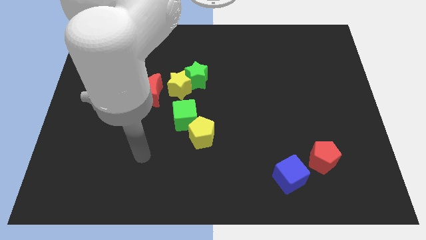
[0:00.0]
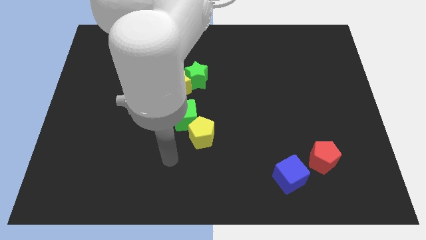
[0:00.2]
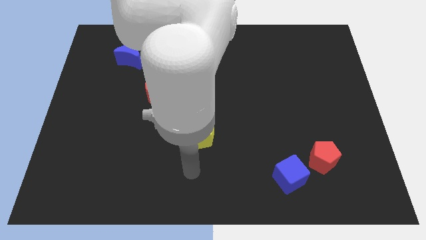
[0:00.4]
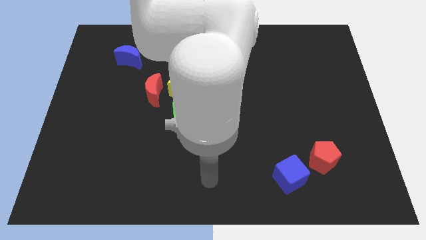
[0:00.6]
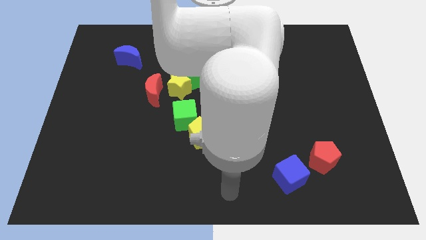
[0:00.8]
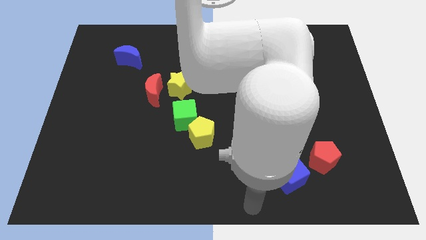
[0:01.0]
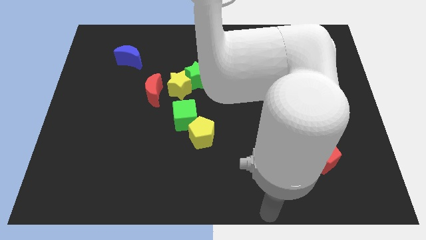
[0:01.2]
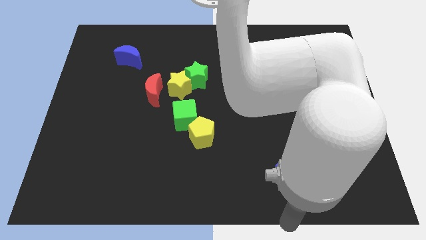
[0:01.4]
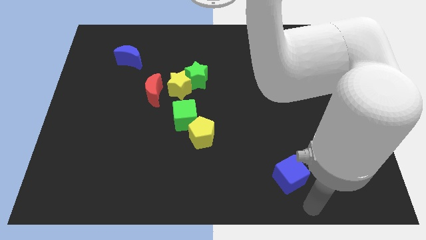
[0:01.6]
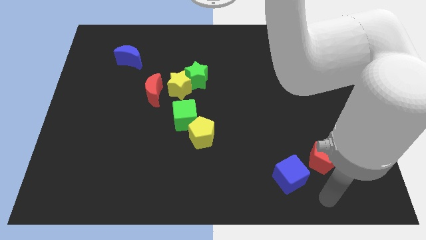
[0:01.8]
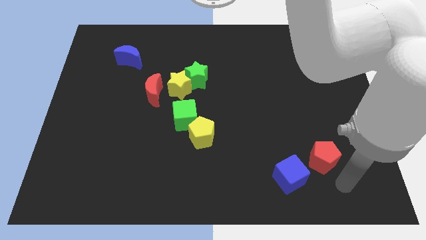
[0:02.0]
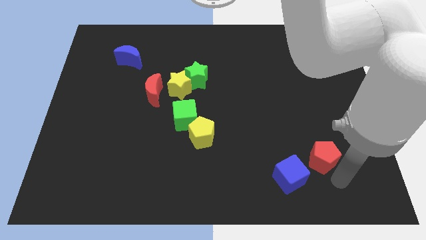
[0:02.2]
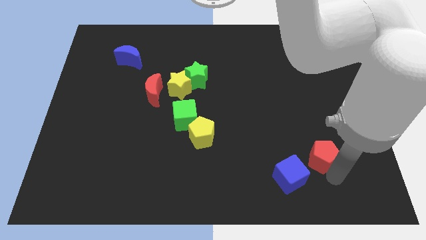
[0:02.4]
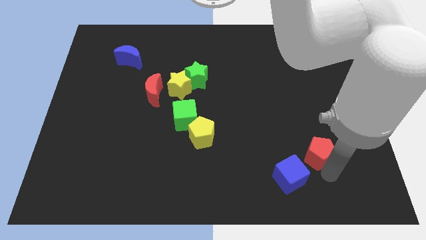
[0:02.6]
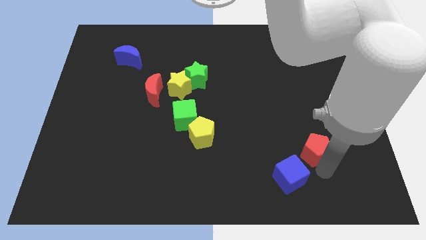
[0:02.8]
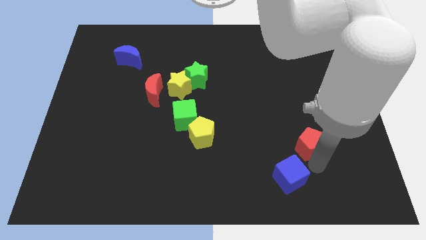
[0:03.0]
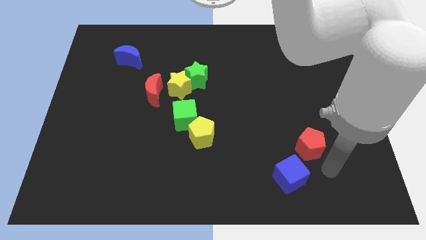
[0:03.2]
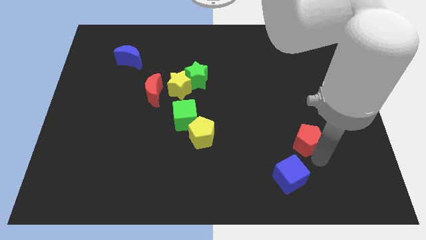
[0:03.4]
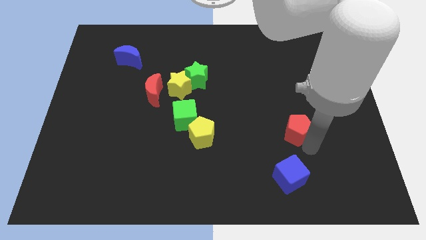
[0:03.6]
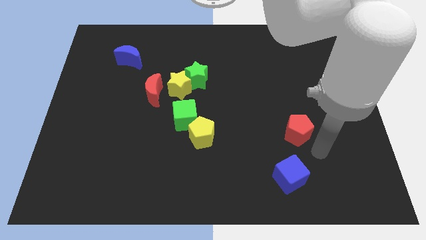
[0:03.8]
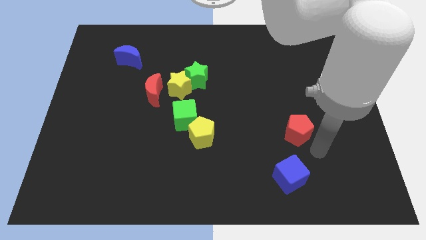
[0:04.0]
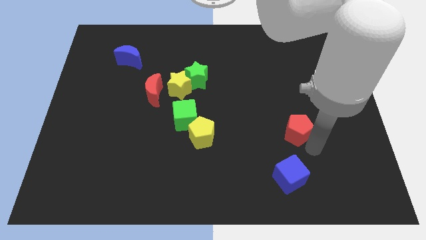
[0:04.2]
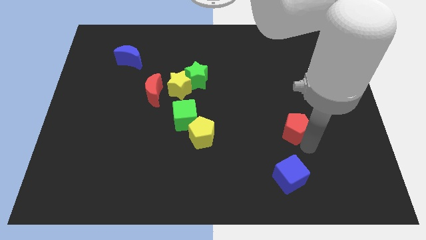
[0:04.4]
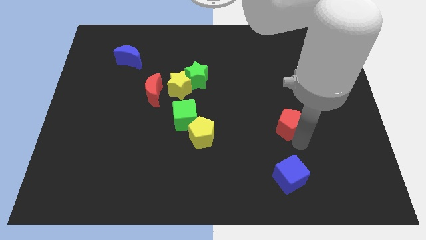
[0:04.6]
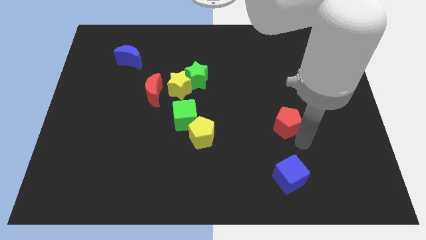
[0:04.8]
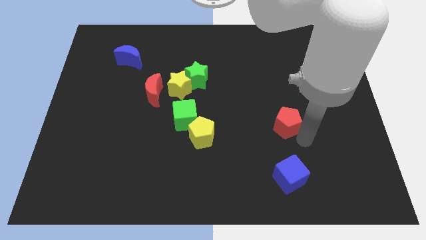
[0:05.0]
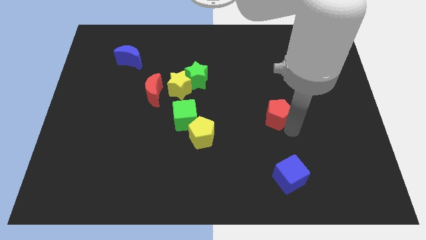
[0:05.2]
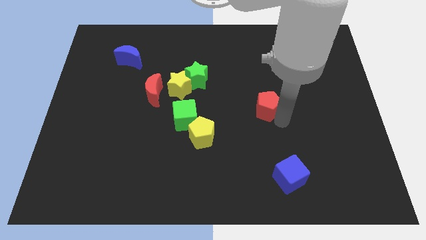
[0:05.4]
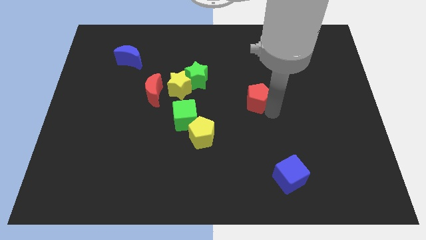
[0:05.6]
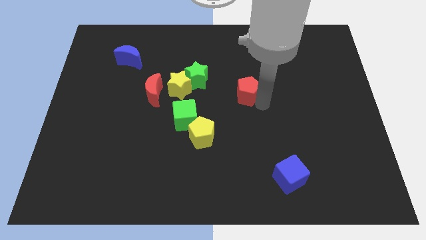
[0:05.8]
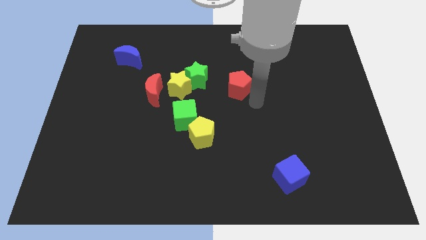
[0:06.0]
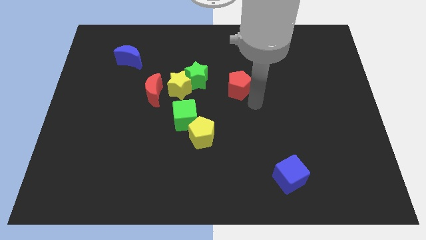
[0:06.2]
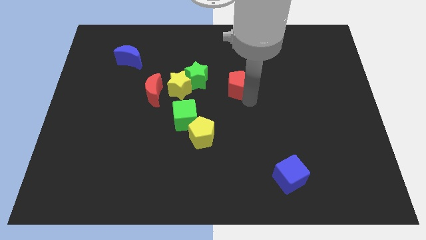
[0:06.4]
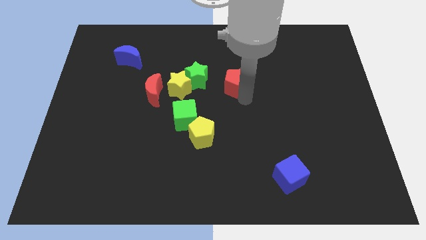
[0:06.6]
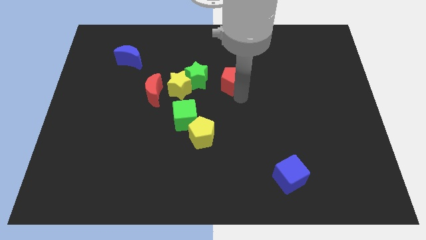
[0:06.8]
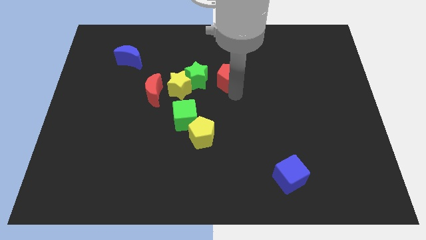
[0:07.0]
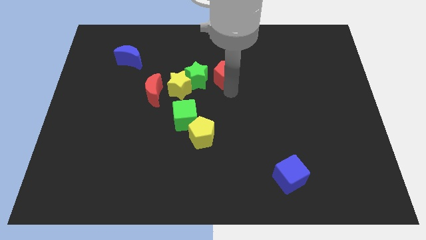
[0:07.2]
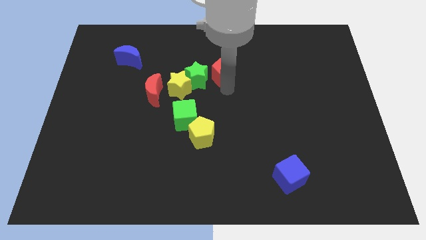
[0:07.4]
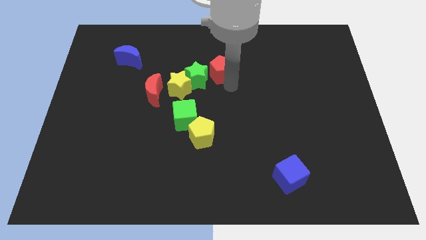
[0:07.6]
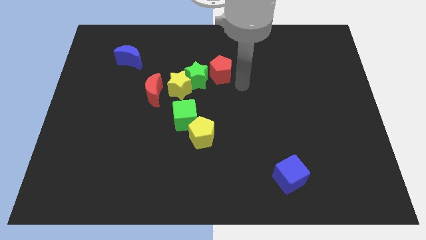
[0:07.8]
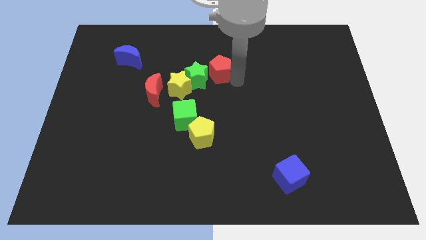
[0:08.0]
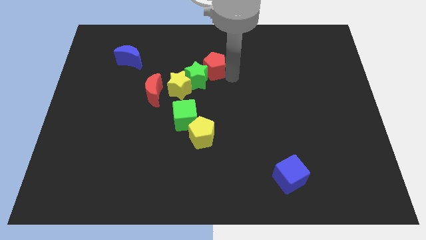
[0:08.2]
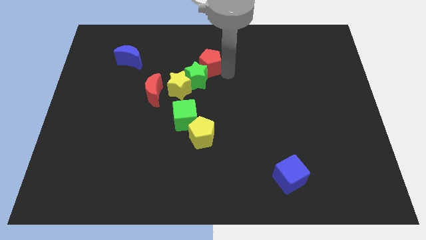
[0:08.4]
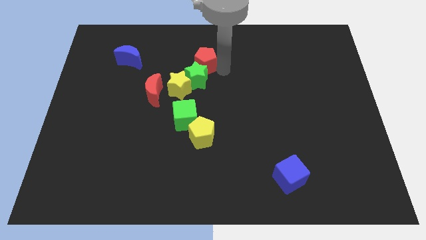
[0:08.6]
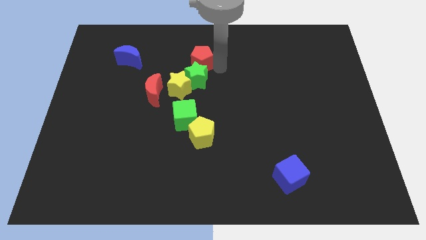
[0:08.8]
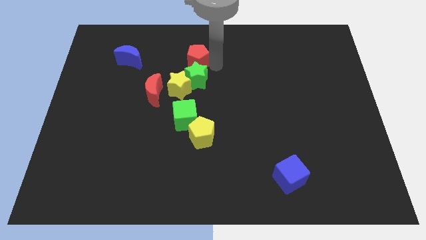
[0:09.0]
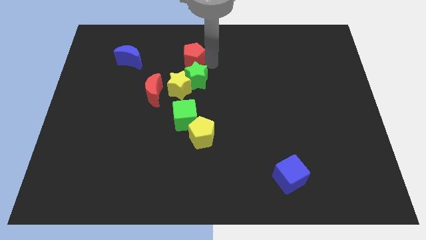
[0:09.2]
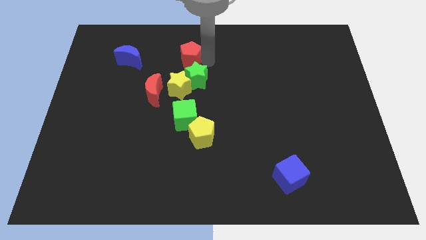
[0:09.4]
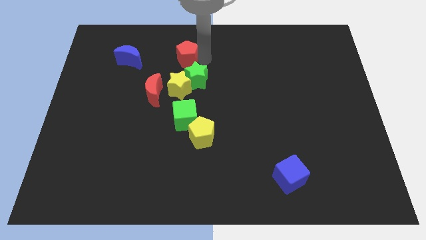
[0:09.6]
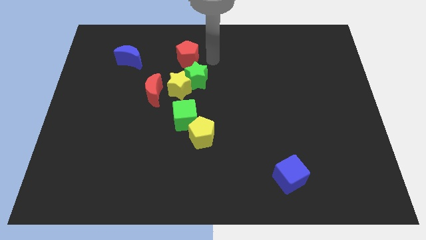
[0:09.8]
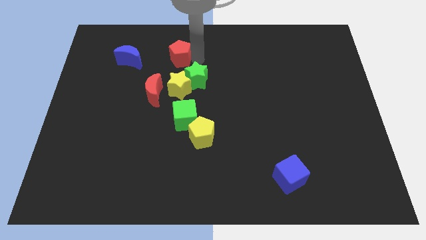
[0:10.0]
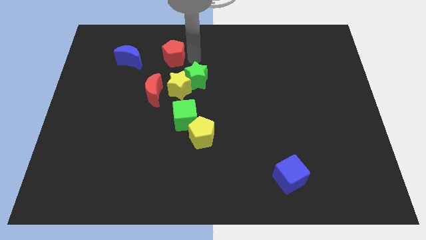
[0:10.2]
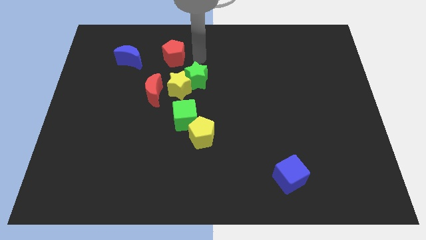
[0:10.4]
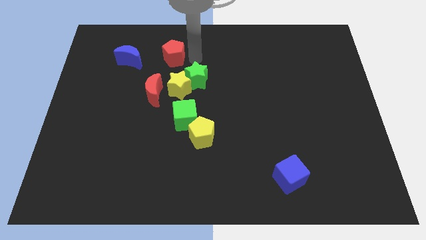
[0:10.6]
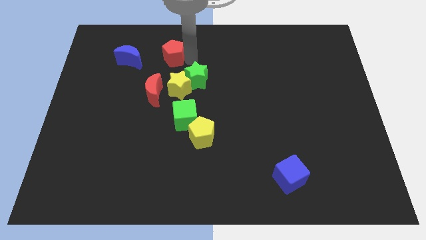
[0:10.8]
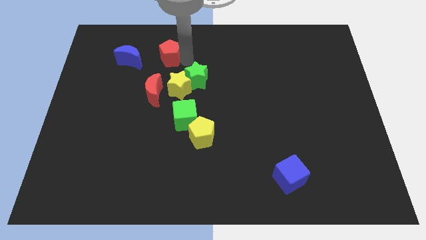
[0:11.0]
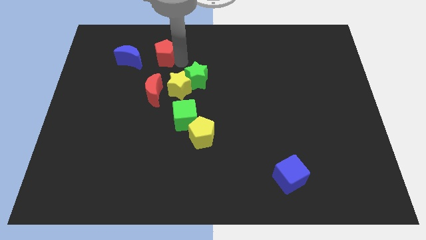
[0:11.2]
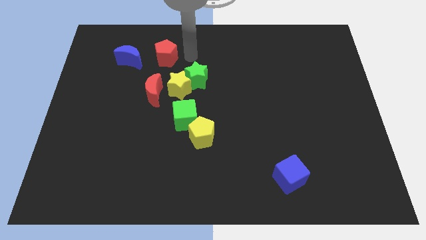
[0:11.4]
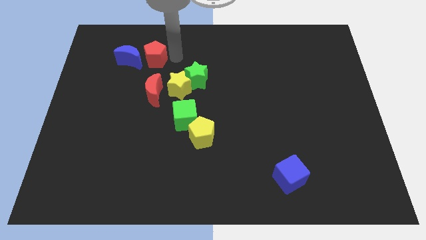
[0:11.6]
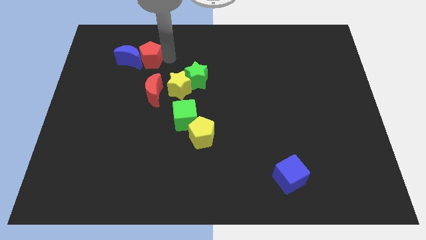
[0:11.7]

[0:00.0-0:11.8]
push the red pentagon next to the blue moon

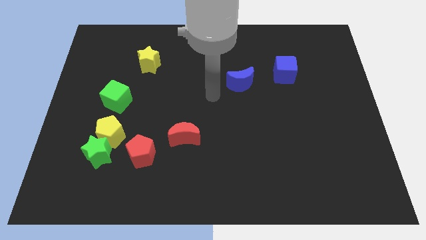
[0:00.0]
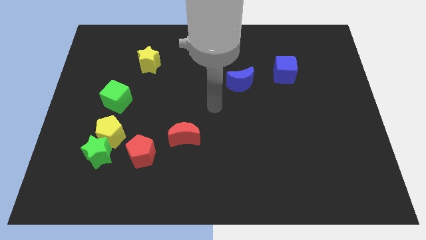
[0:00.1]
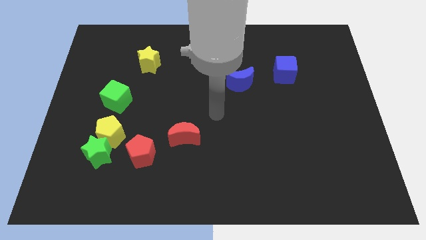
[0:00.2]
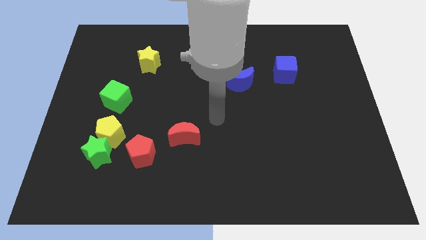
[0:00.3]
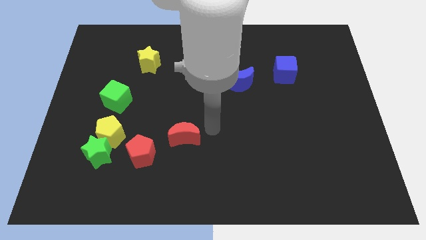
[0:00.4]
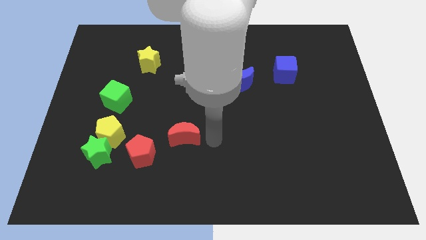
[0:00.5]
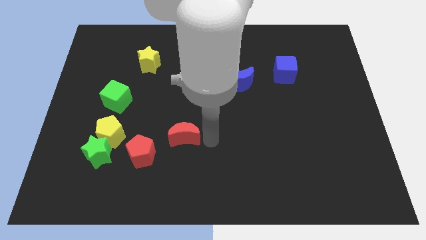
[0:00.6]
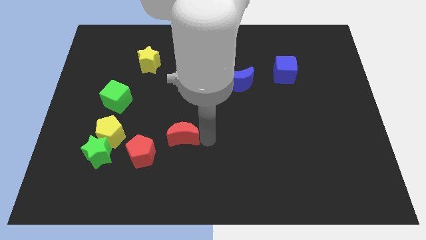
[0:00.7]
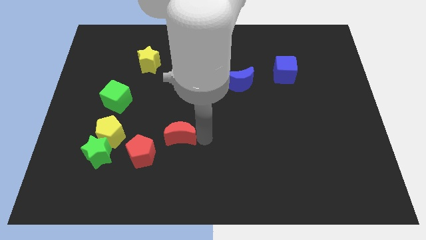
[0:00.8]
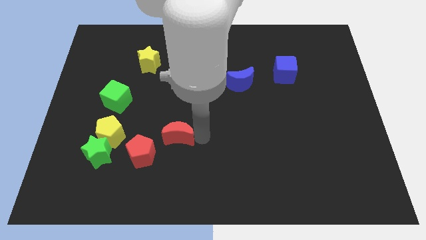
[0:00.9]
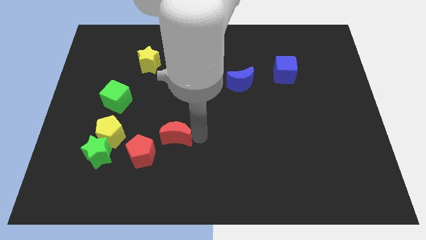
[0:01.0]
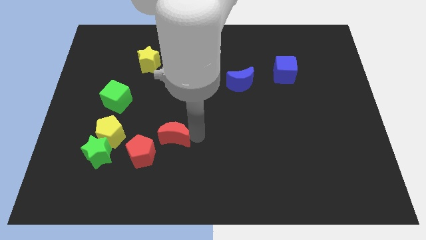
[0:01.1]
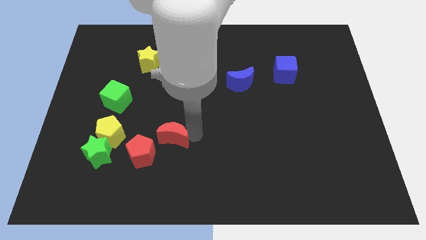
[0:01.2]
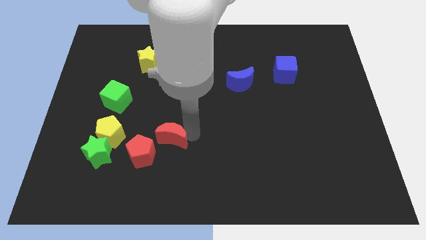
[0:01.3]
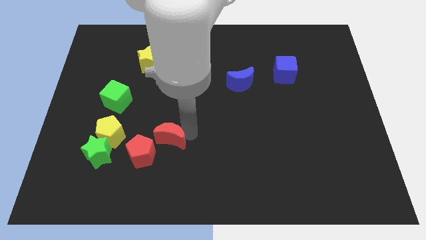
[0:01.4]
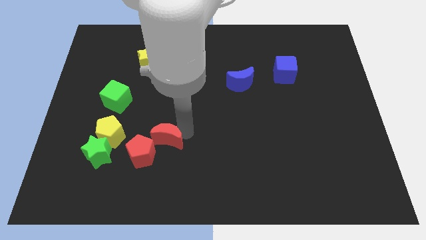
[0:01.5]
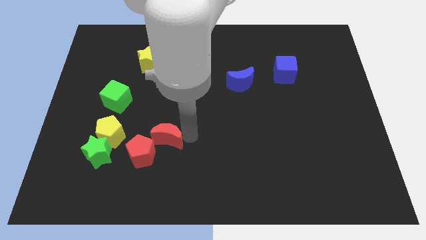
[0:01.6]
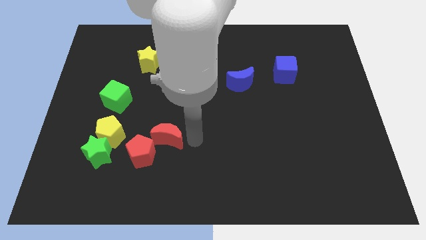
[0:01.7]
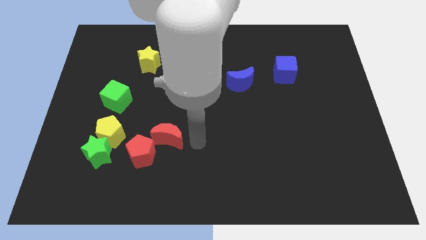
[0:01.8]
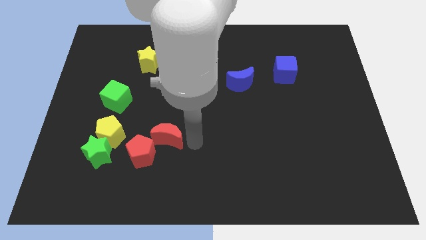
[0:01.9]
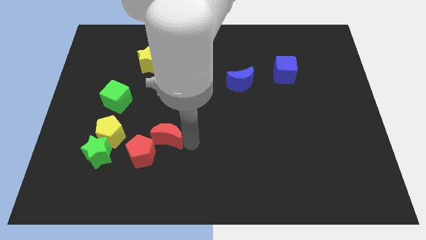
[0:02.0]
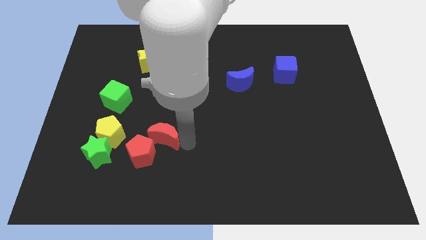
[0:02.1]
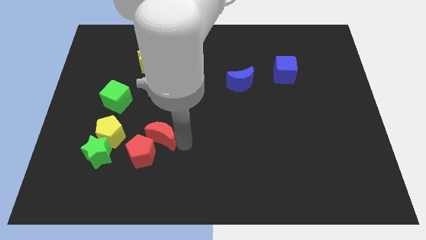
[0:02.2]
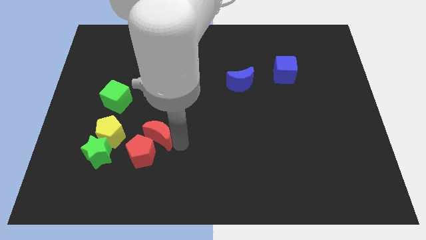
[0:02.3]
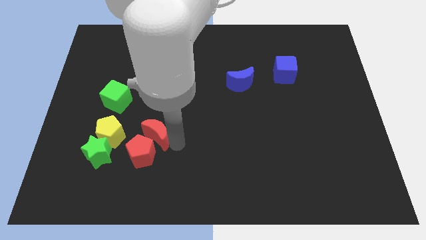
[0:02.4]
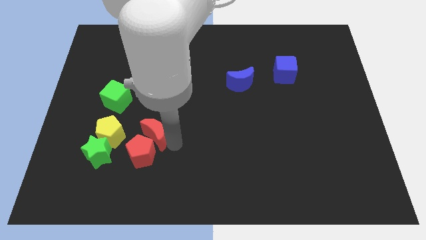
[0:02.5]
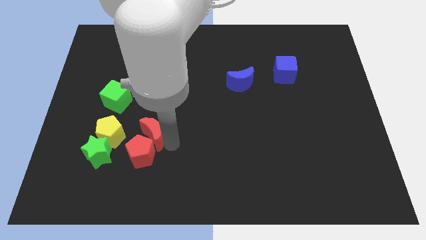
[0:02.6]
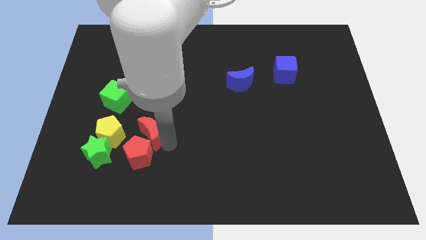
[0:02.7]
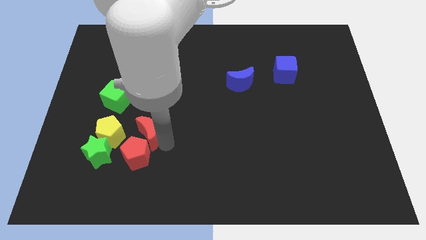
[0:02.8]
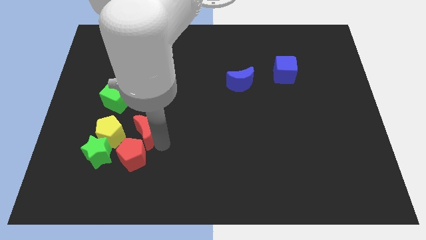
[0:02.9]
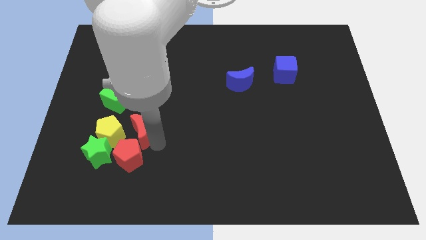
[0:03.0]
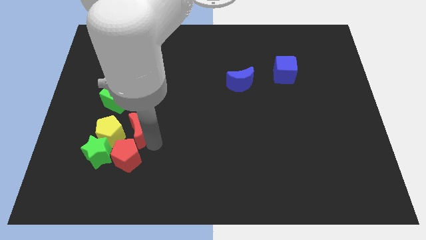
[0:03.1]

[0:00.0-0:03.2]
put the red moon next to the yellow pentagon
